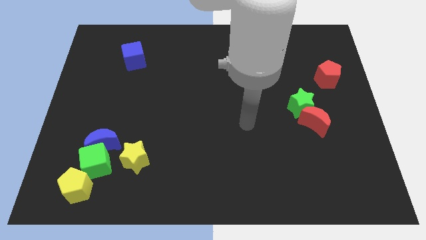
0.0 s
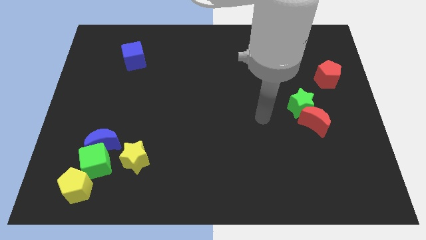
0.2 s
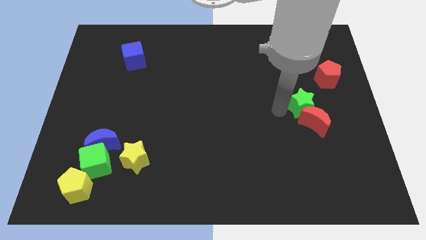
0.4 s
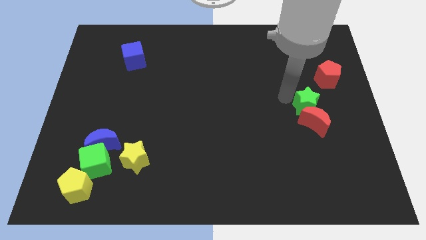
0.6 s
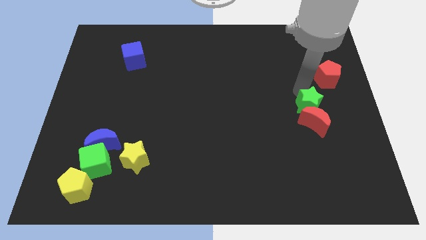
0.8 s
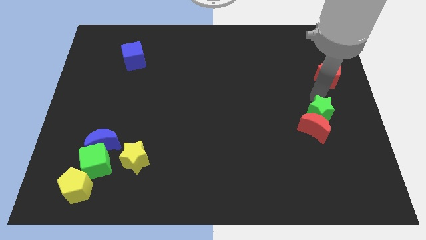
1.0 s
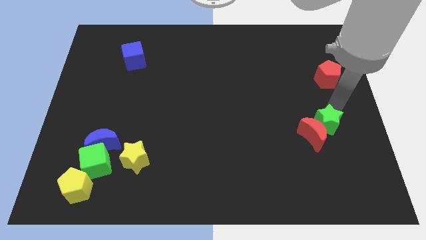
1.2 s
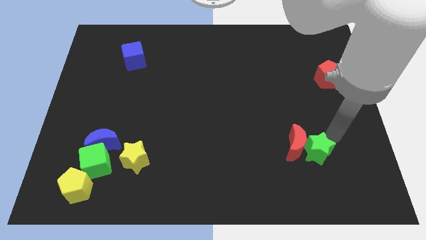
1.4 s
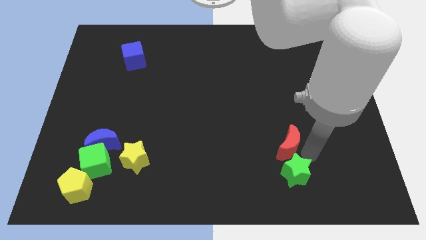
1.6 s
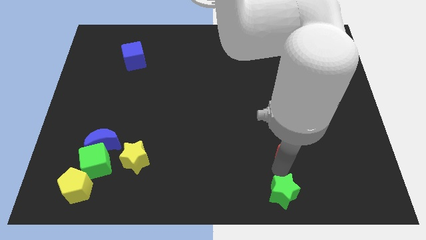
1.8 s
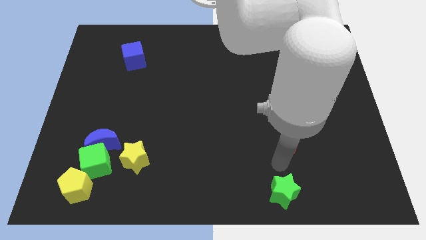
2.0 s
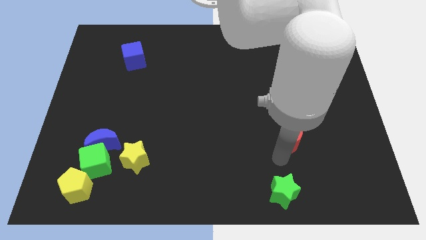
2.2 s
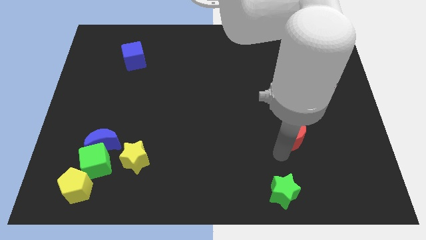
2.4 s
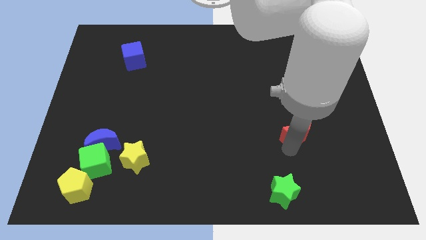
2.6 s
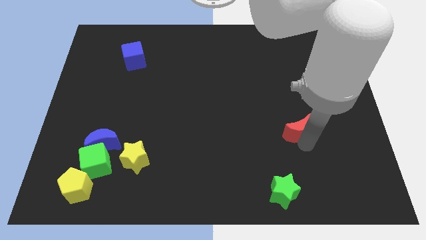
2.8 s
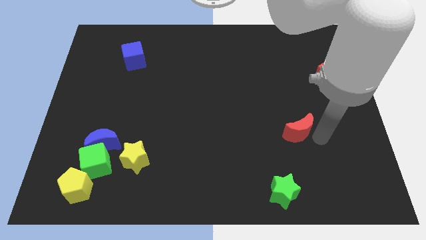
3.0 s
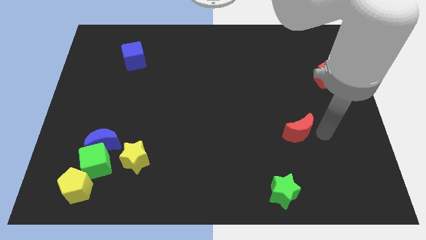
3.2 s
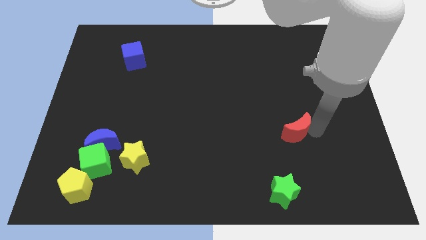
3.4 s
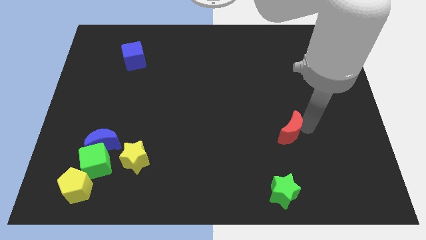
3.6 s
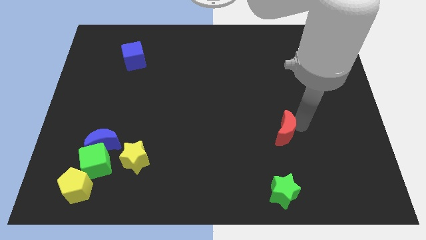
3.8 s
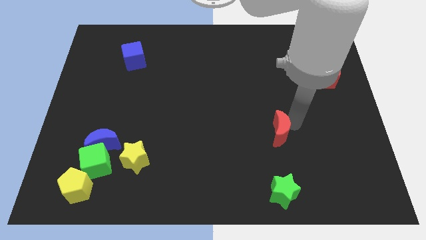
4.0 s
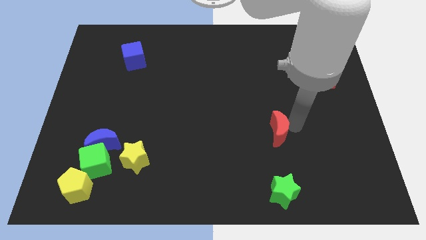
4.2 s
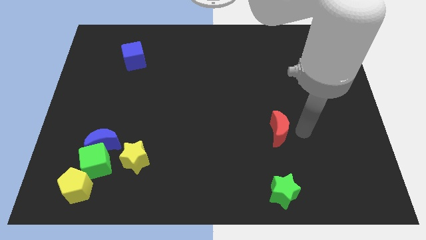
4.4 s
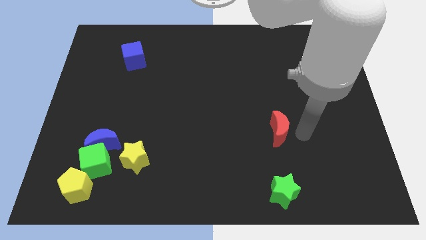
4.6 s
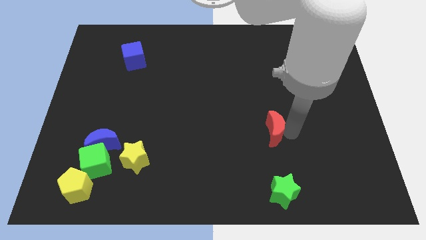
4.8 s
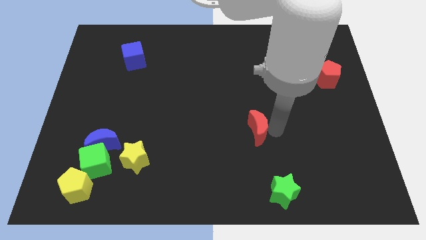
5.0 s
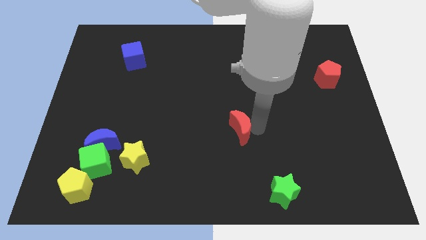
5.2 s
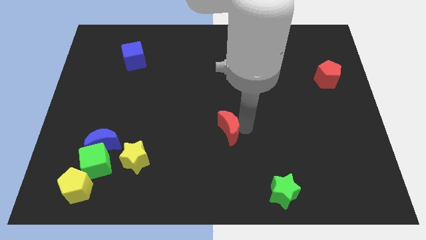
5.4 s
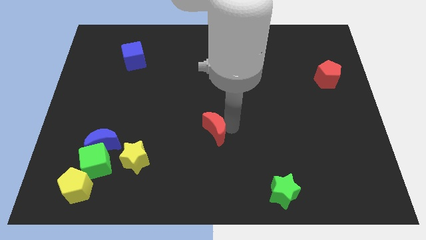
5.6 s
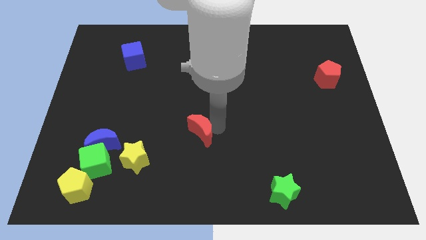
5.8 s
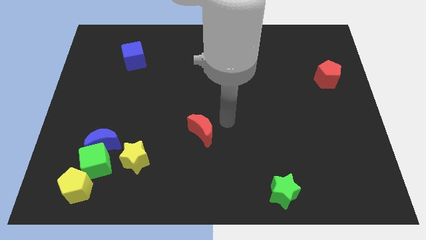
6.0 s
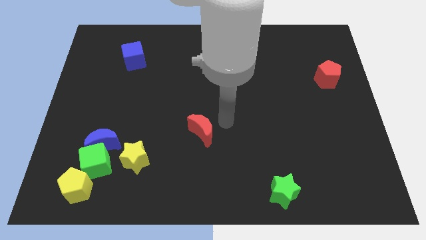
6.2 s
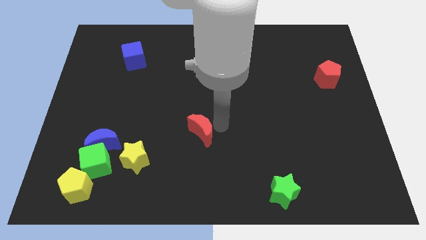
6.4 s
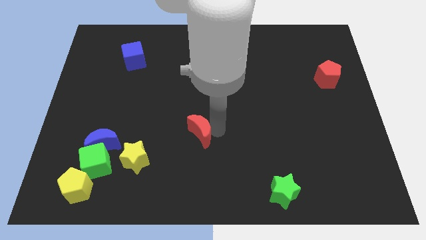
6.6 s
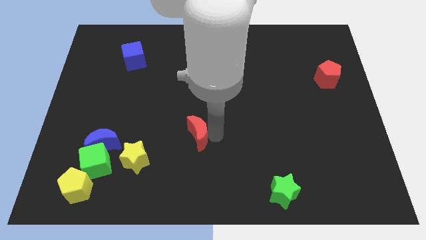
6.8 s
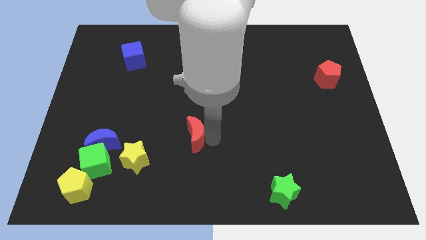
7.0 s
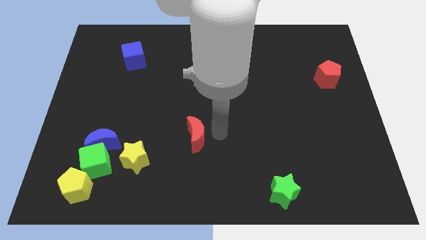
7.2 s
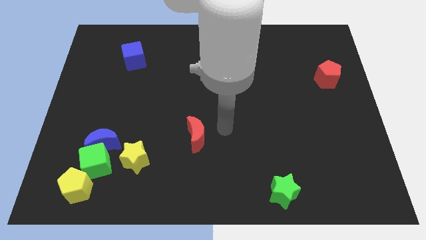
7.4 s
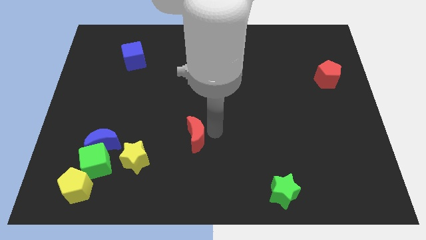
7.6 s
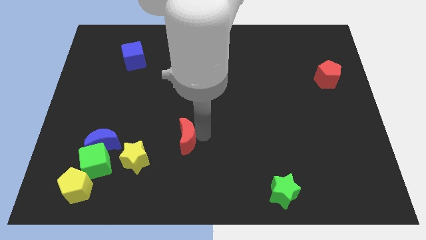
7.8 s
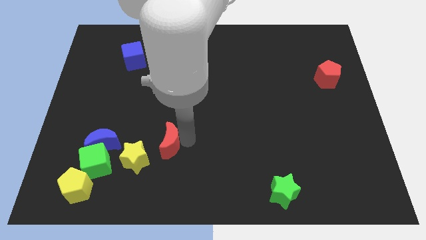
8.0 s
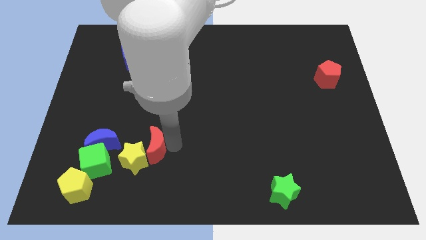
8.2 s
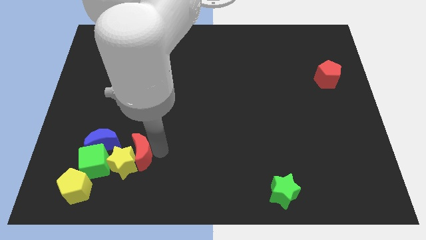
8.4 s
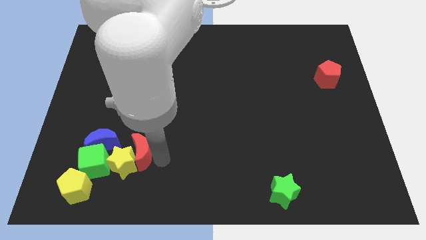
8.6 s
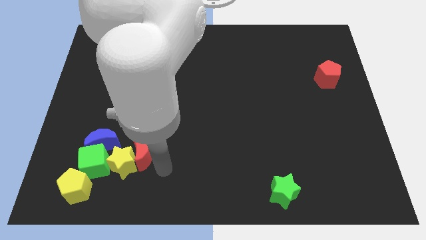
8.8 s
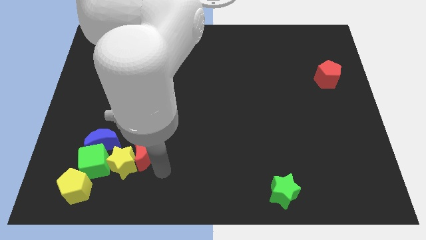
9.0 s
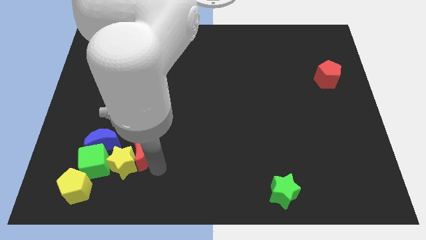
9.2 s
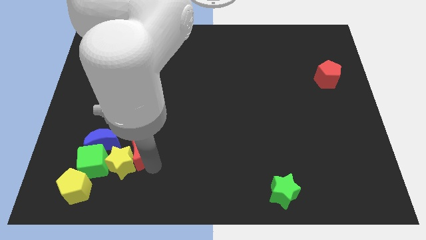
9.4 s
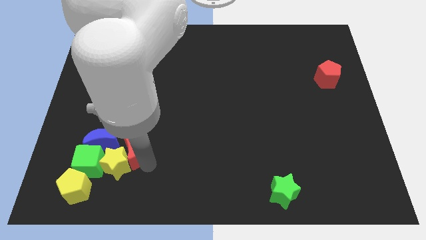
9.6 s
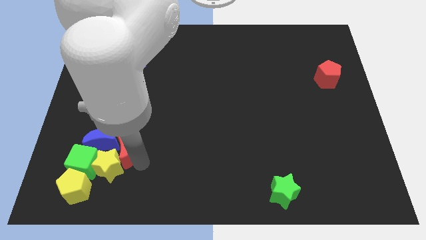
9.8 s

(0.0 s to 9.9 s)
slide the red moon close to the blue moon

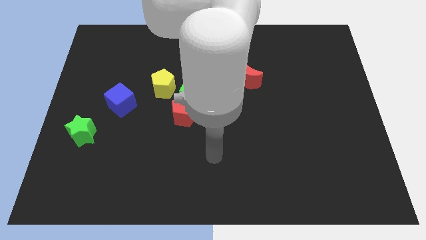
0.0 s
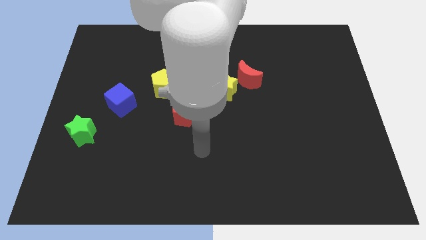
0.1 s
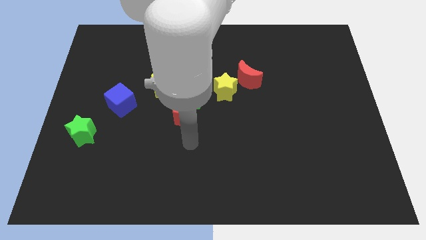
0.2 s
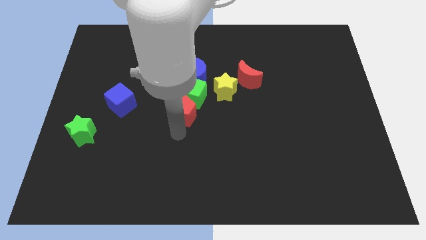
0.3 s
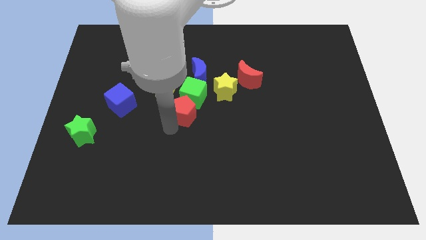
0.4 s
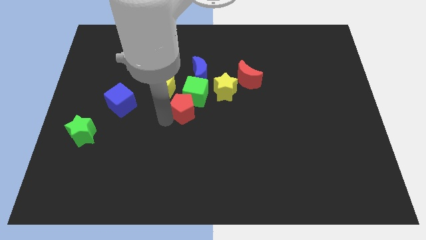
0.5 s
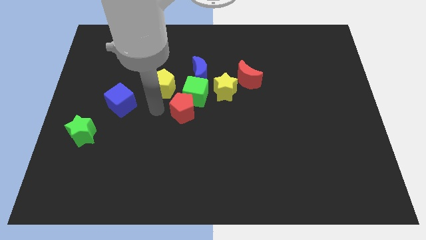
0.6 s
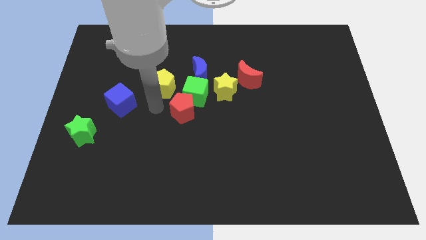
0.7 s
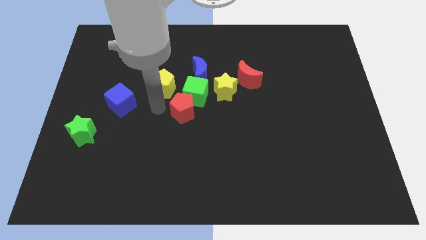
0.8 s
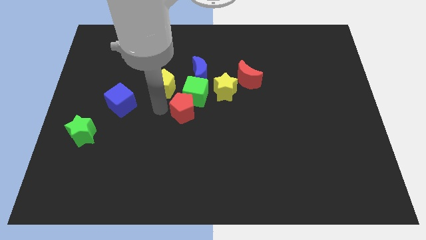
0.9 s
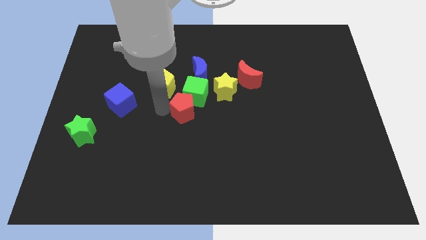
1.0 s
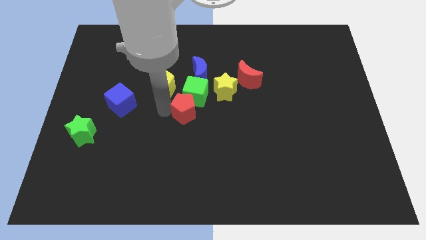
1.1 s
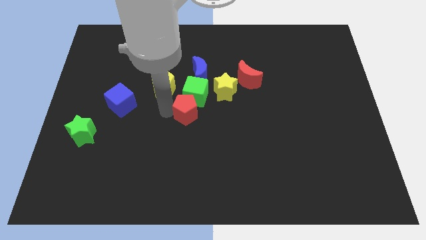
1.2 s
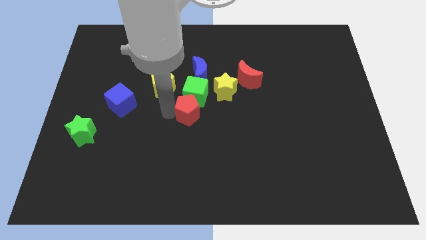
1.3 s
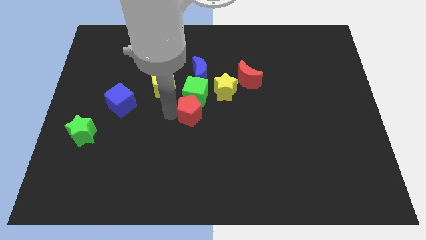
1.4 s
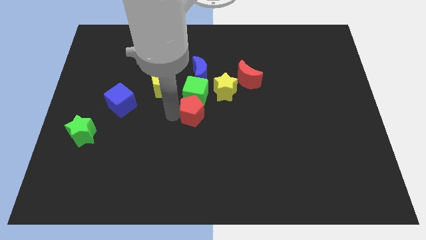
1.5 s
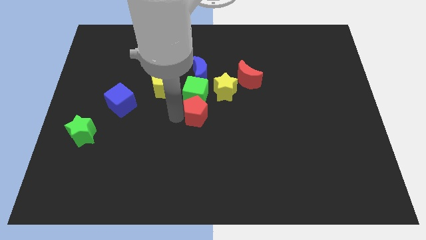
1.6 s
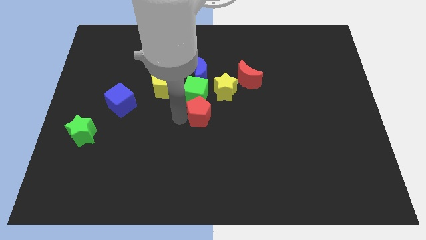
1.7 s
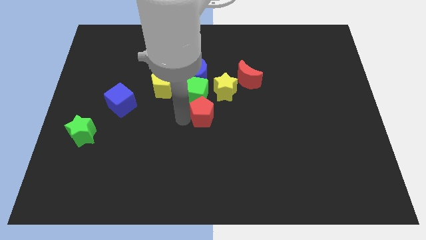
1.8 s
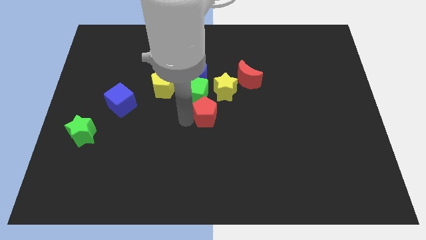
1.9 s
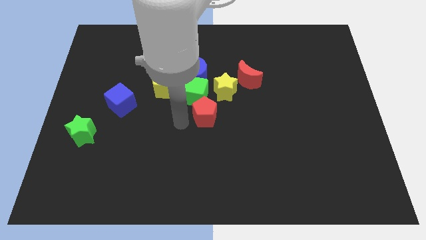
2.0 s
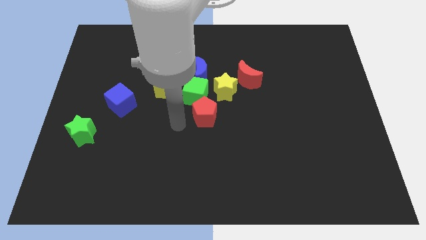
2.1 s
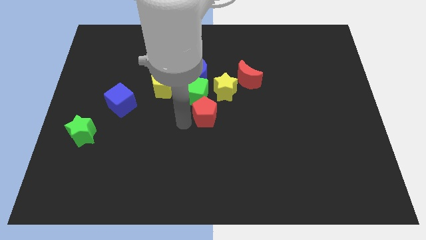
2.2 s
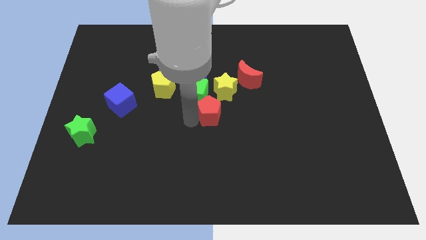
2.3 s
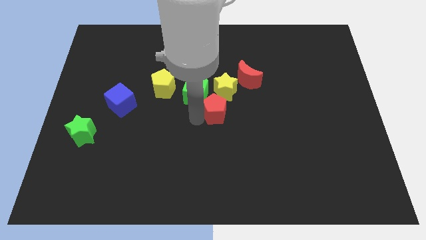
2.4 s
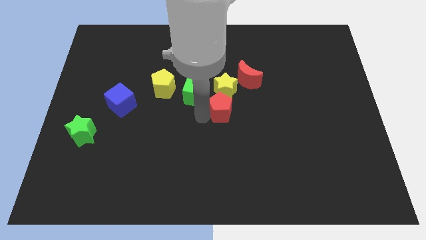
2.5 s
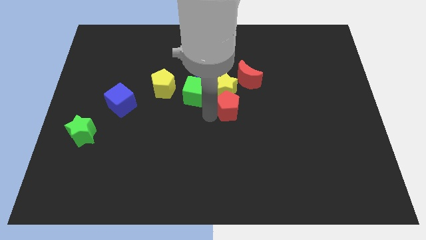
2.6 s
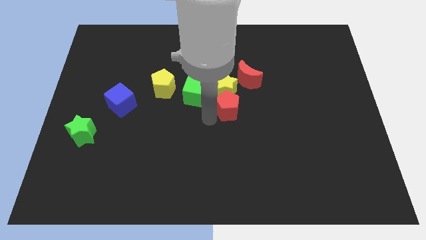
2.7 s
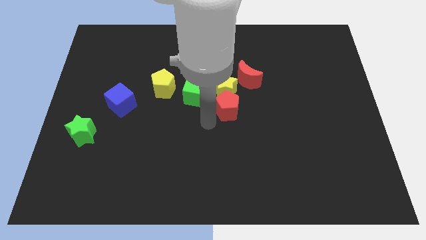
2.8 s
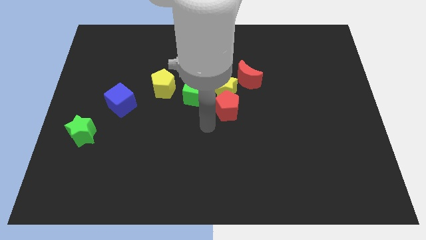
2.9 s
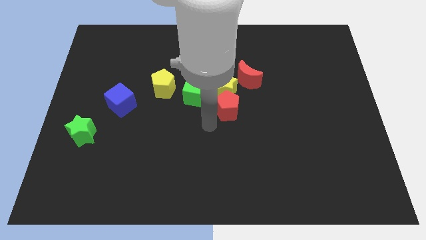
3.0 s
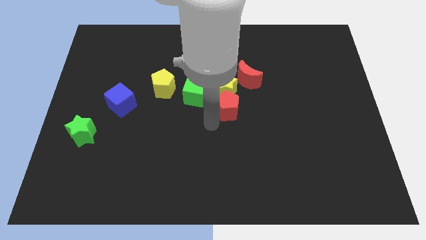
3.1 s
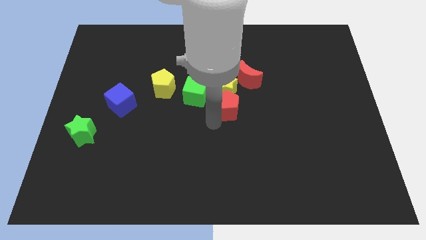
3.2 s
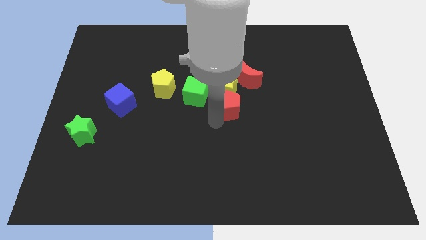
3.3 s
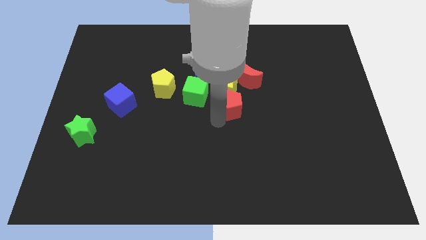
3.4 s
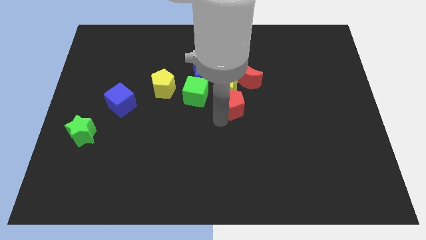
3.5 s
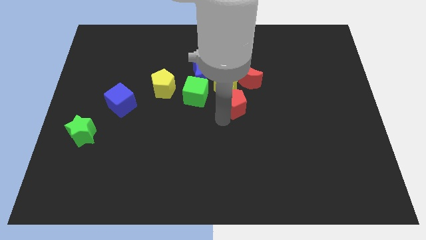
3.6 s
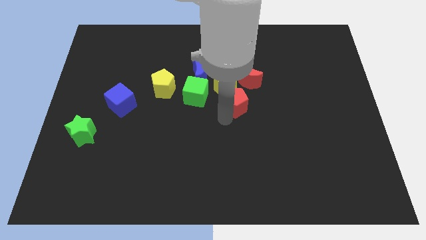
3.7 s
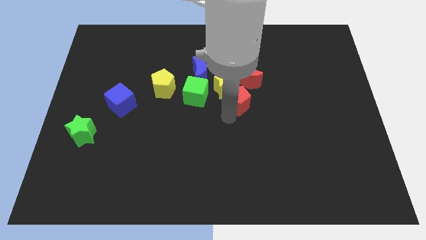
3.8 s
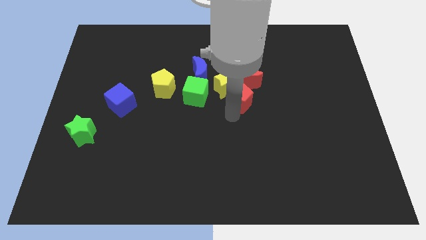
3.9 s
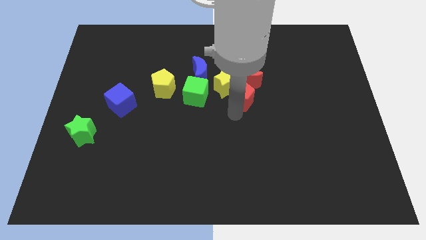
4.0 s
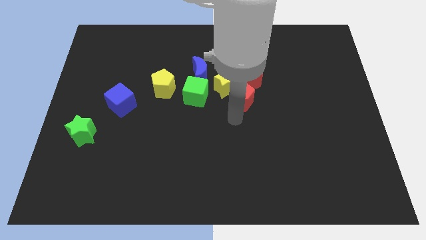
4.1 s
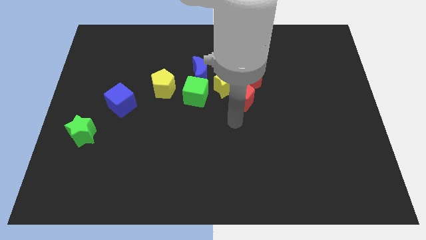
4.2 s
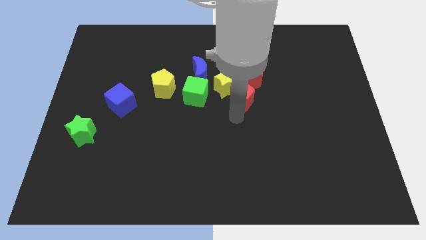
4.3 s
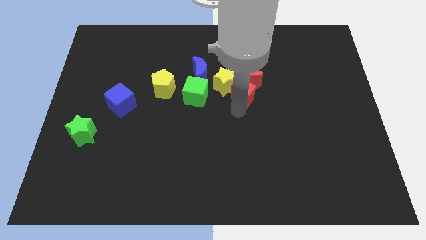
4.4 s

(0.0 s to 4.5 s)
put the red pentagon next to the red moon
